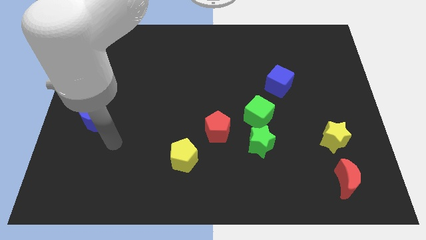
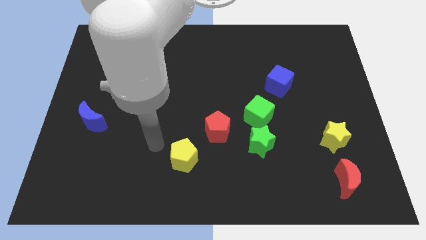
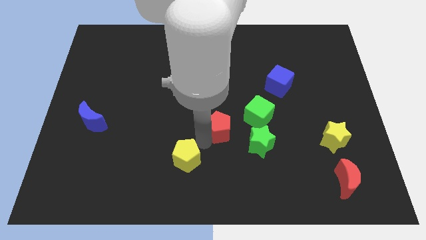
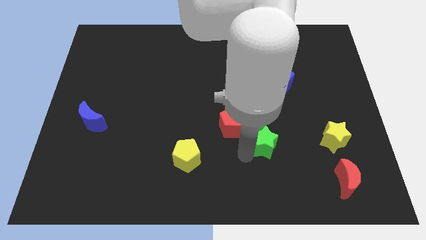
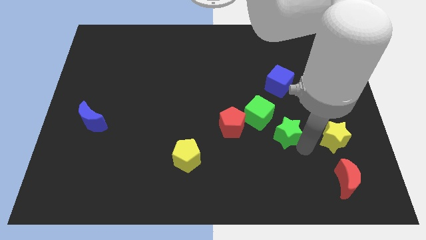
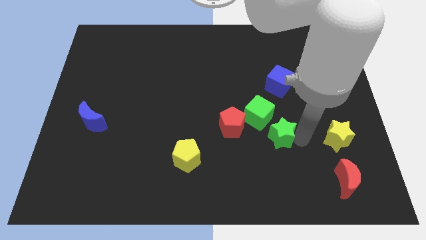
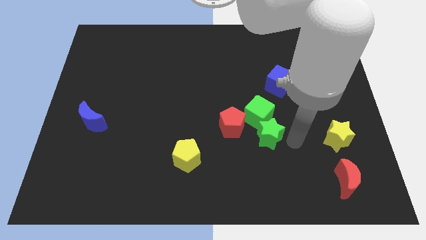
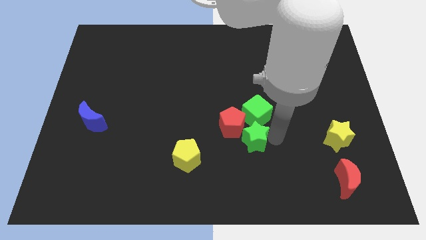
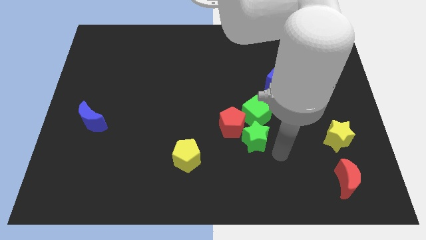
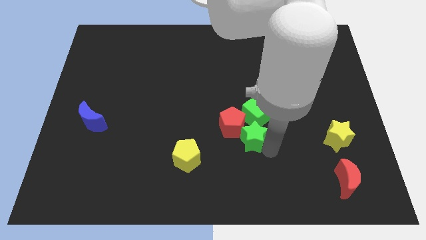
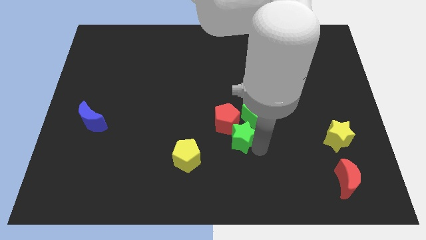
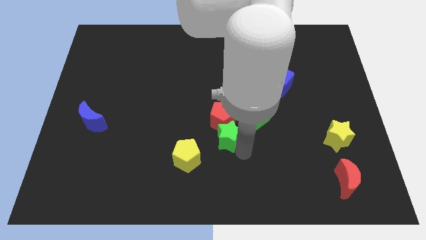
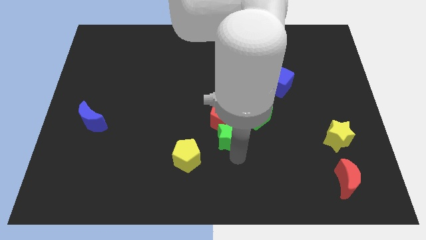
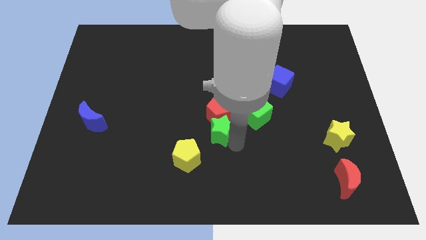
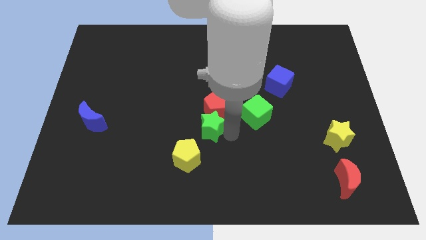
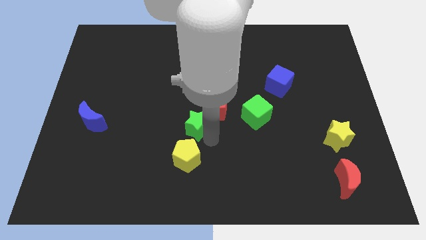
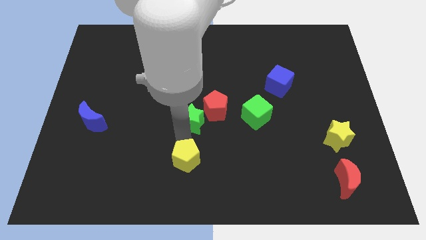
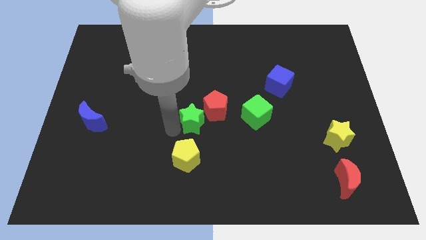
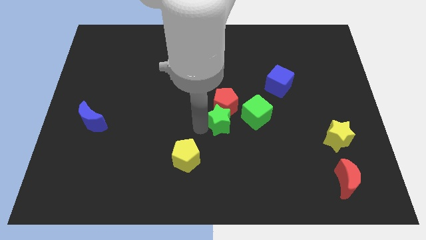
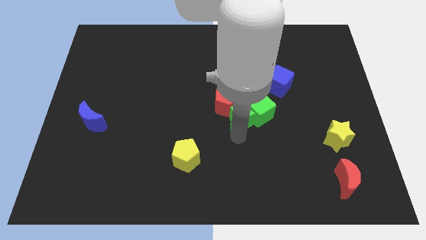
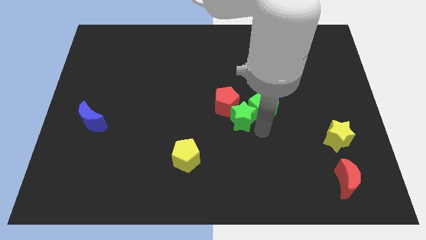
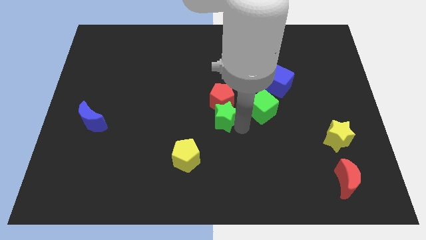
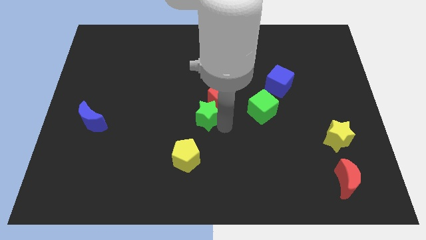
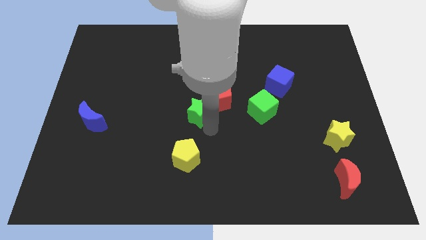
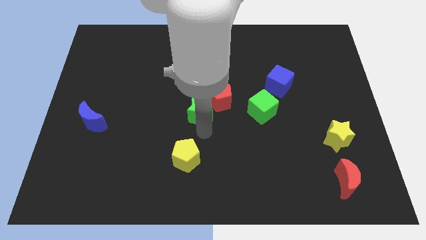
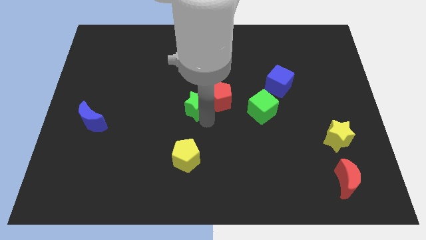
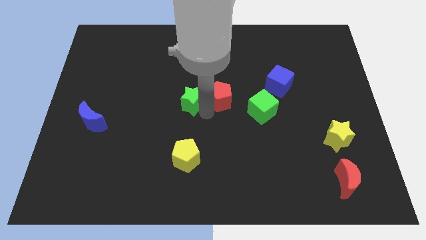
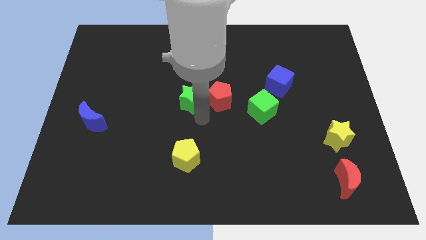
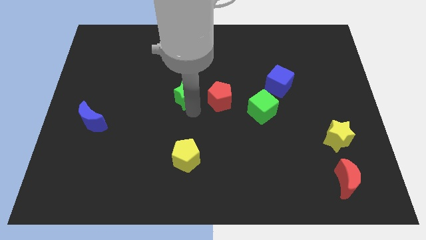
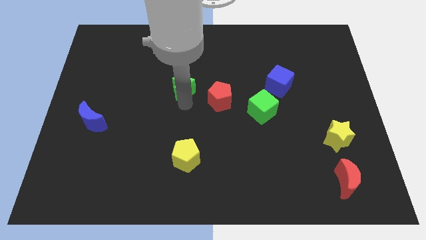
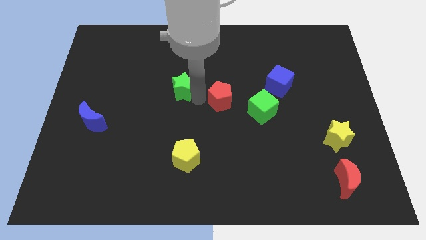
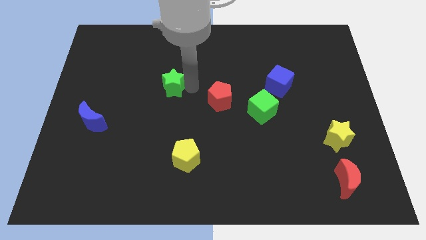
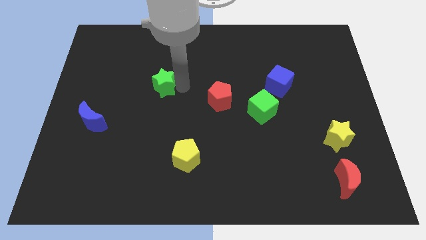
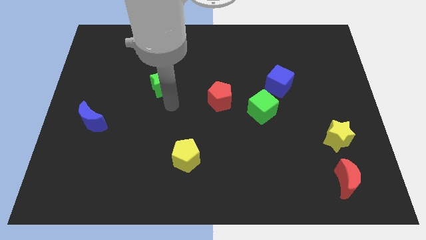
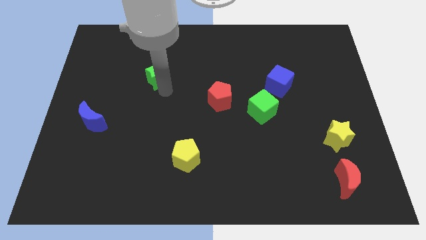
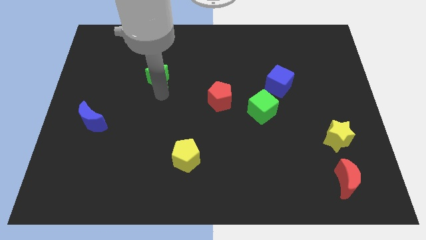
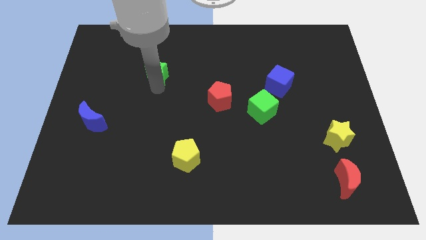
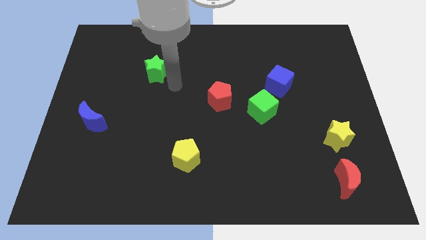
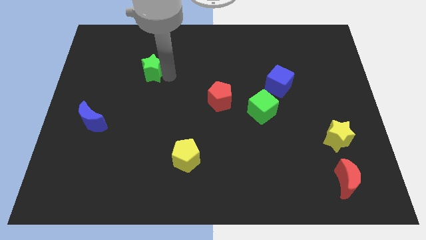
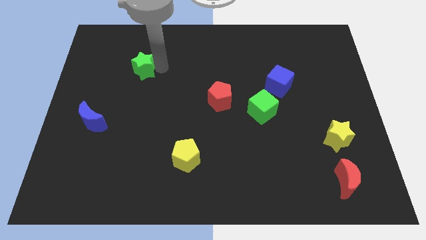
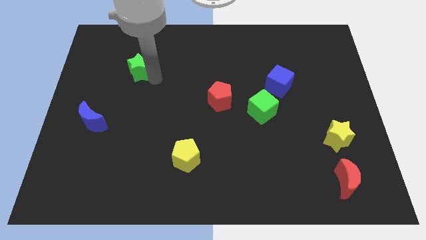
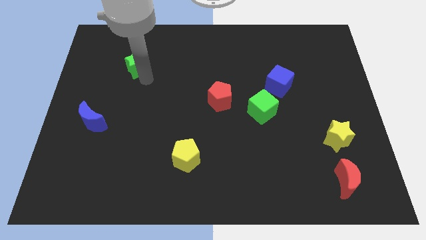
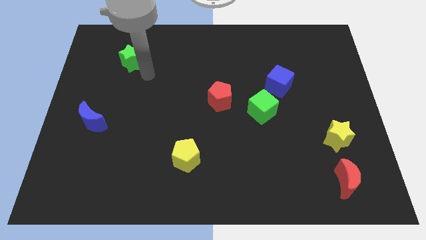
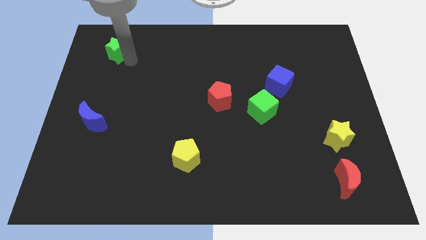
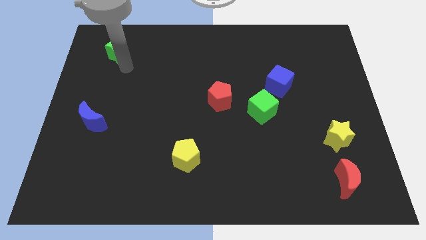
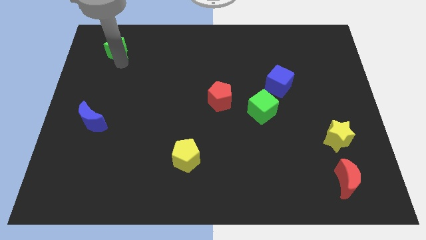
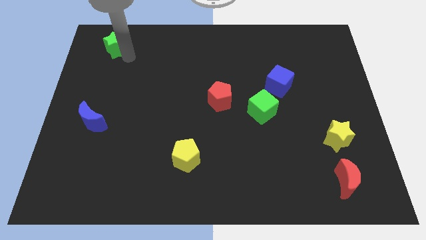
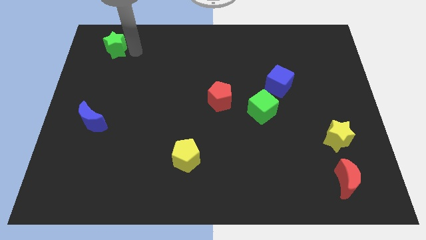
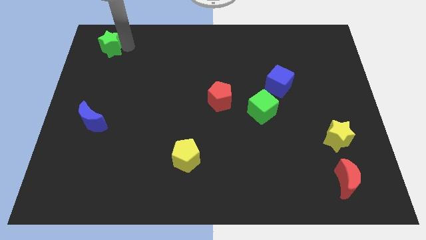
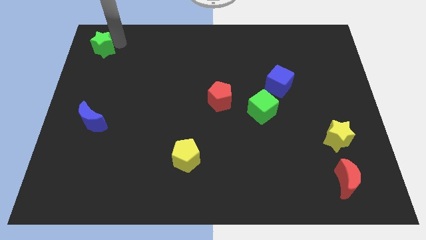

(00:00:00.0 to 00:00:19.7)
put the green star to the top left
